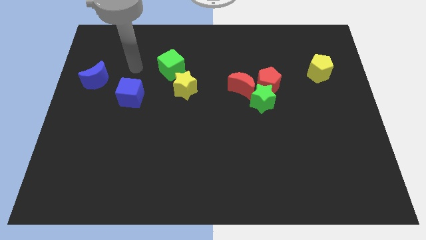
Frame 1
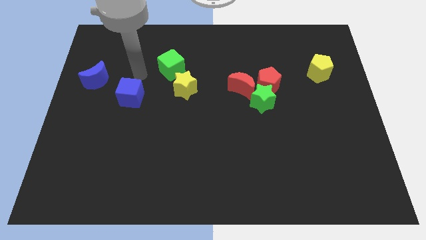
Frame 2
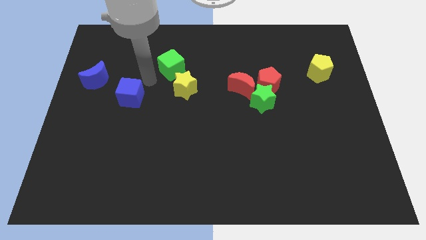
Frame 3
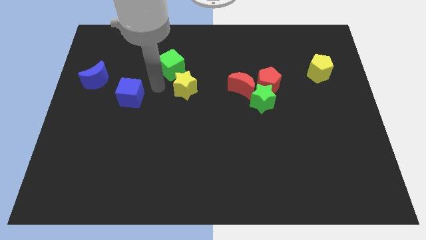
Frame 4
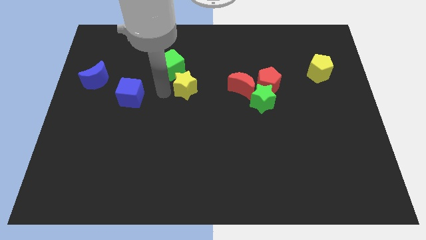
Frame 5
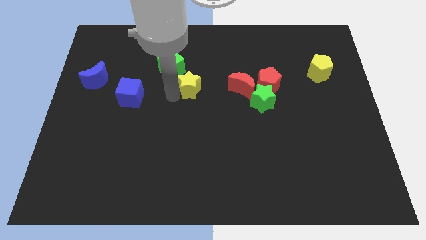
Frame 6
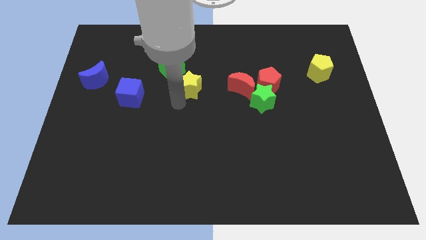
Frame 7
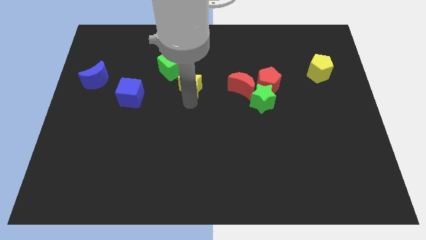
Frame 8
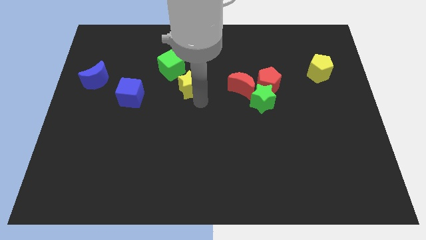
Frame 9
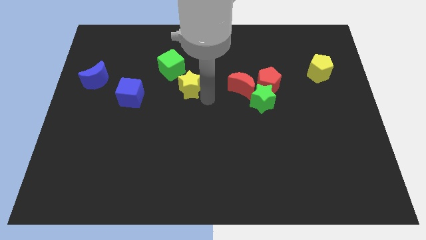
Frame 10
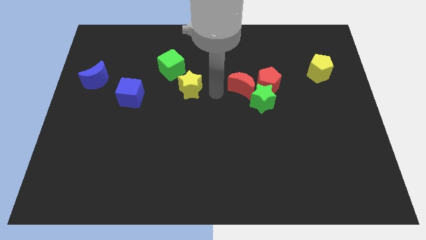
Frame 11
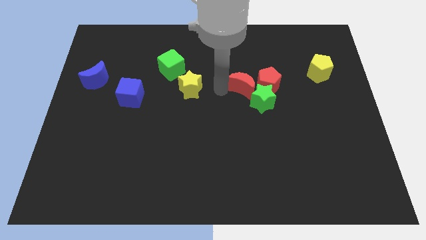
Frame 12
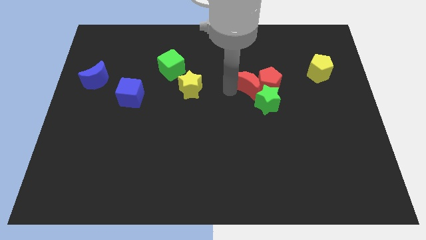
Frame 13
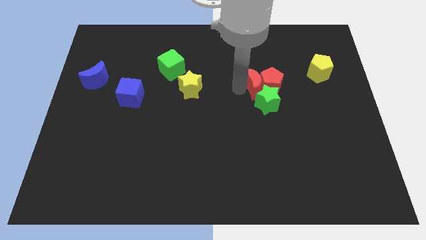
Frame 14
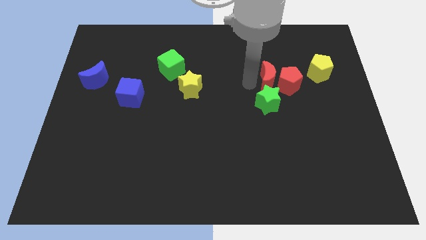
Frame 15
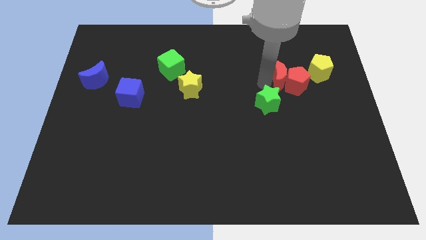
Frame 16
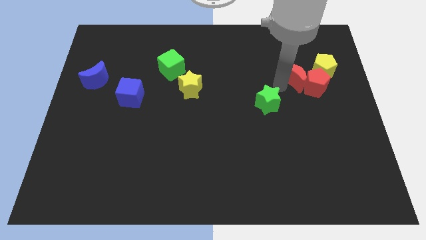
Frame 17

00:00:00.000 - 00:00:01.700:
separate the green star from the red pentagon and red moon

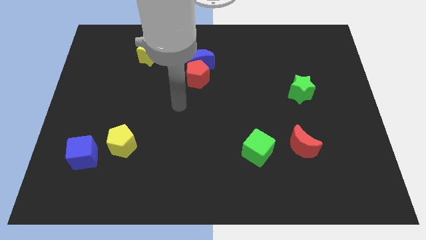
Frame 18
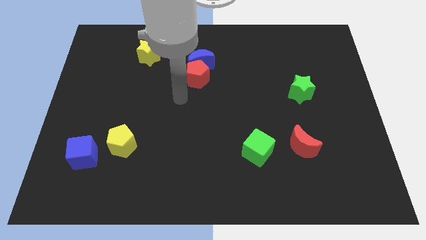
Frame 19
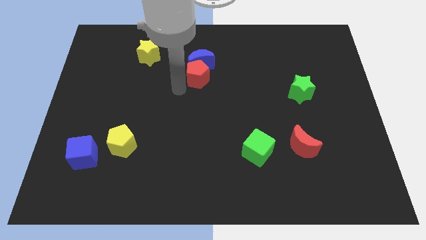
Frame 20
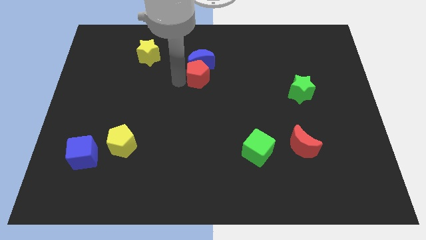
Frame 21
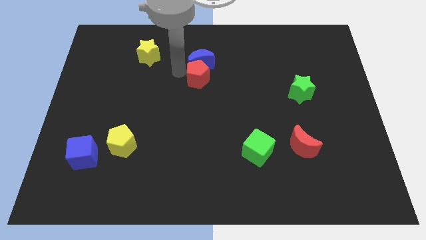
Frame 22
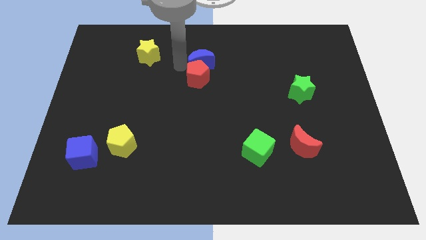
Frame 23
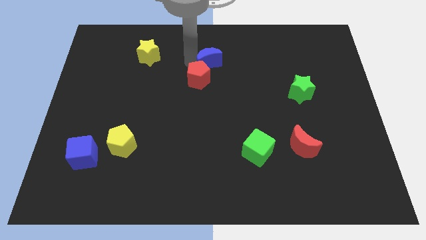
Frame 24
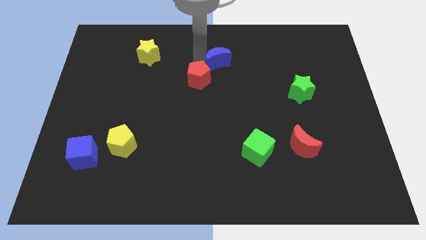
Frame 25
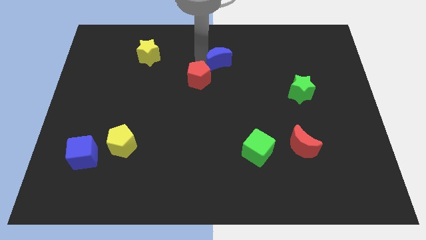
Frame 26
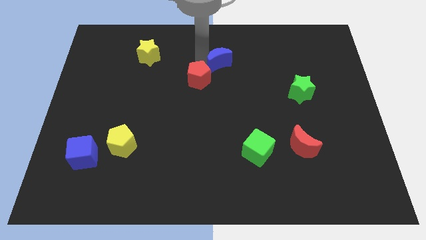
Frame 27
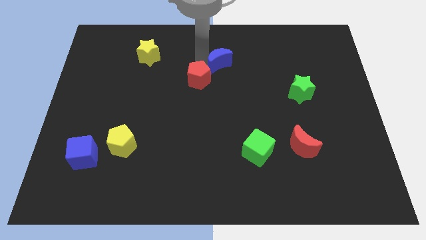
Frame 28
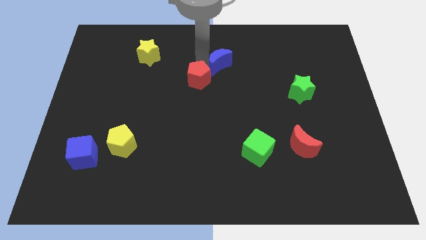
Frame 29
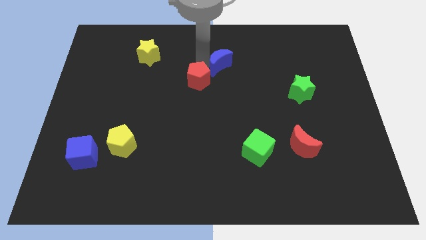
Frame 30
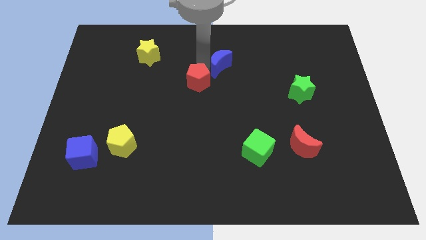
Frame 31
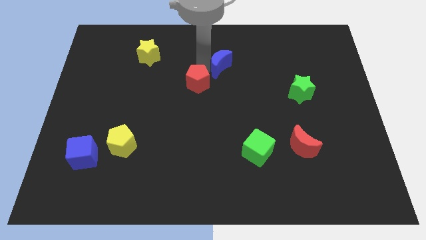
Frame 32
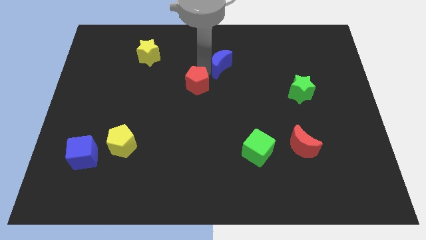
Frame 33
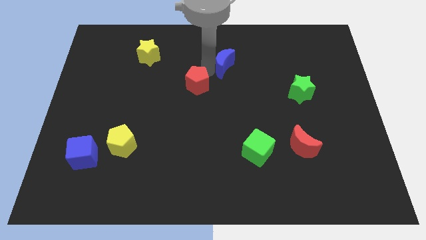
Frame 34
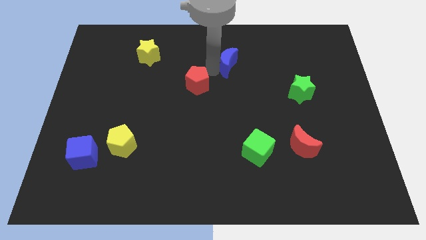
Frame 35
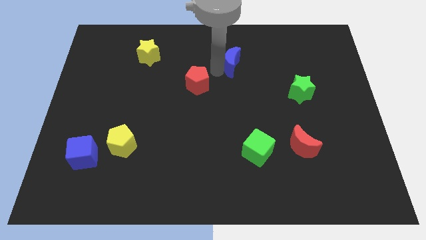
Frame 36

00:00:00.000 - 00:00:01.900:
move the red pentagon away from the blue moon

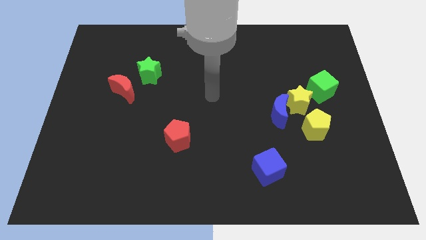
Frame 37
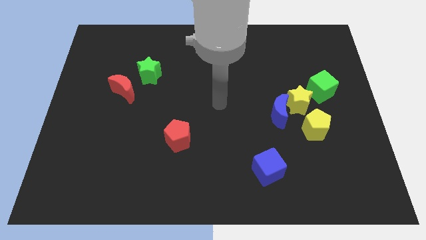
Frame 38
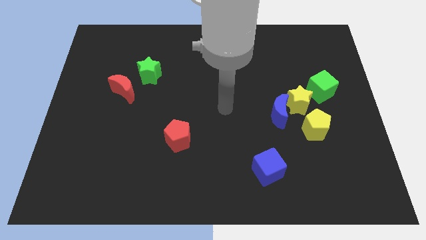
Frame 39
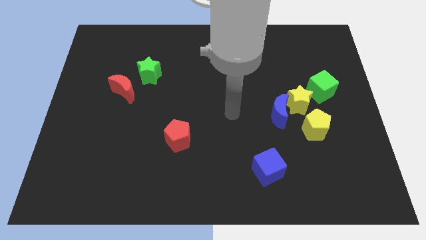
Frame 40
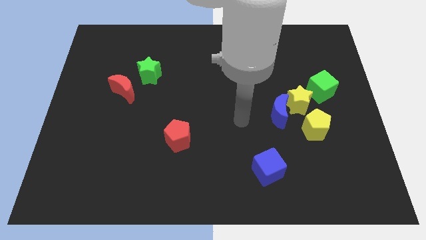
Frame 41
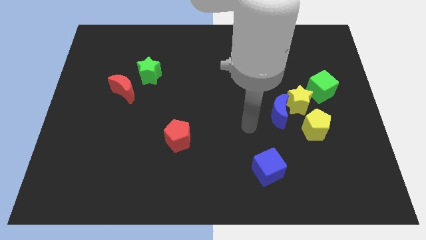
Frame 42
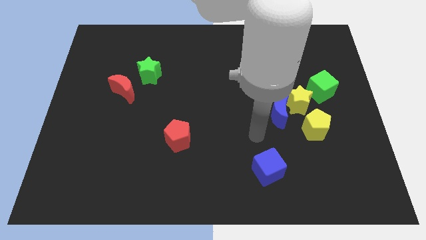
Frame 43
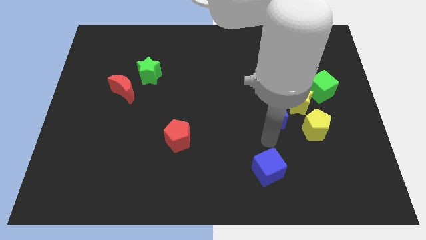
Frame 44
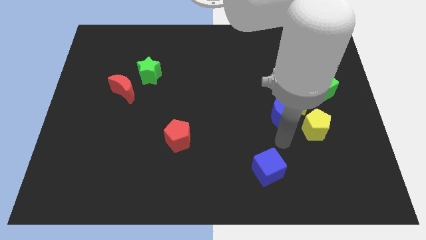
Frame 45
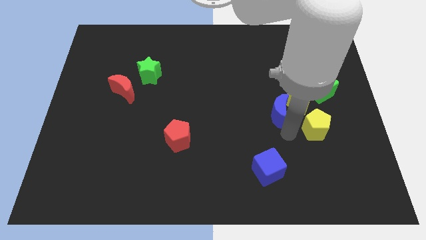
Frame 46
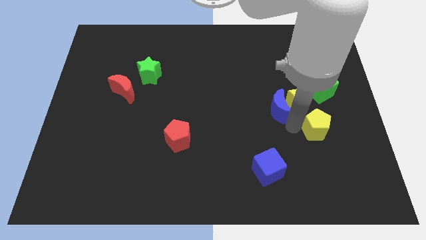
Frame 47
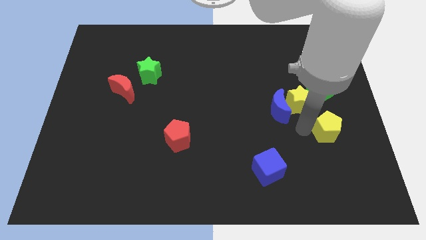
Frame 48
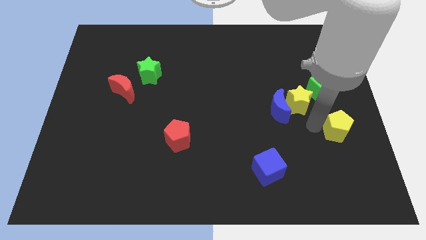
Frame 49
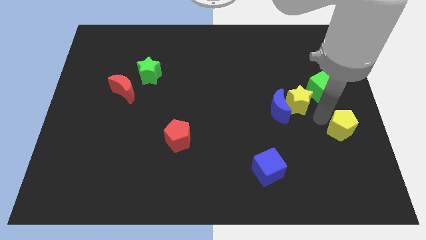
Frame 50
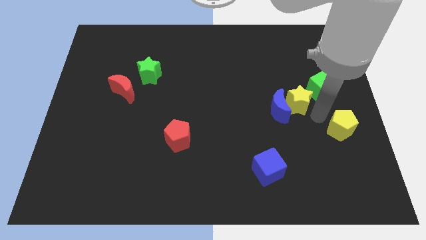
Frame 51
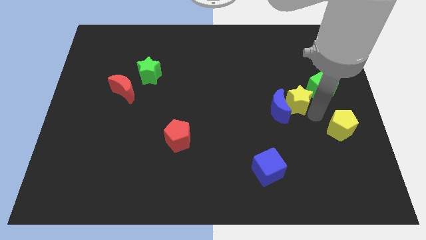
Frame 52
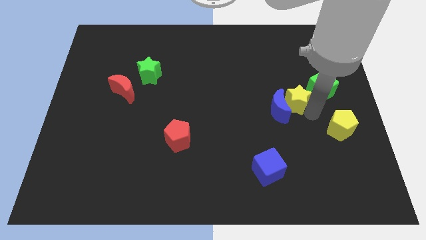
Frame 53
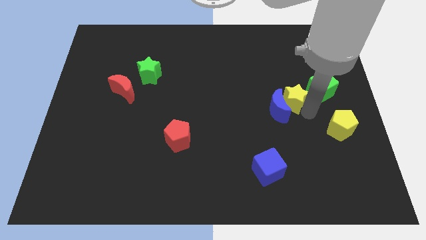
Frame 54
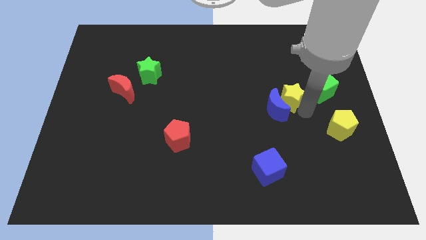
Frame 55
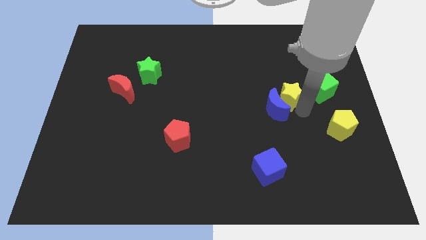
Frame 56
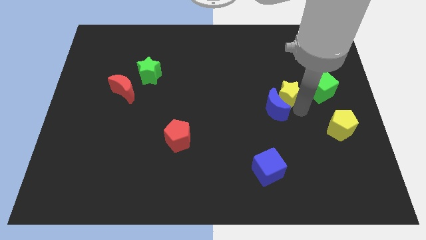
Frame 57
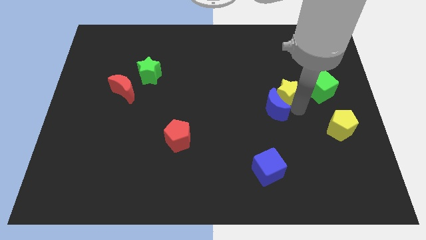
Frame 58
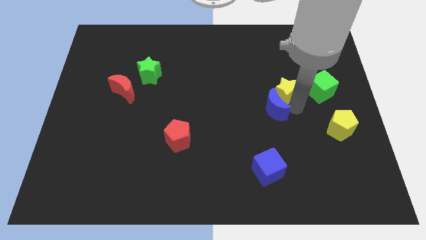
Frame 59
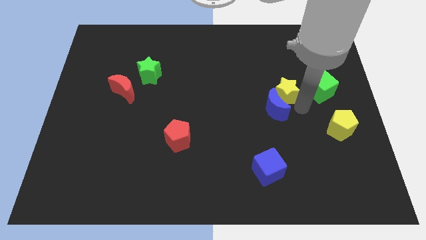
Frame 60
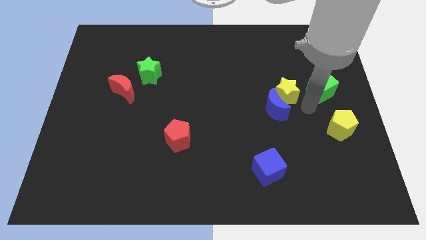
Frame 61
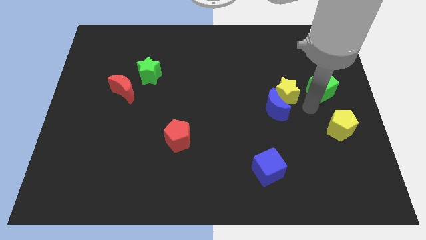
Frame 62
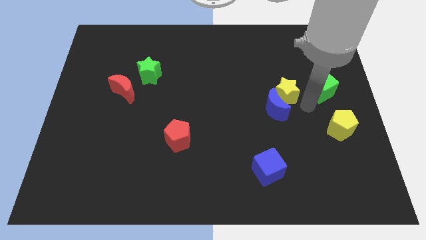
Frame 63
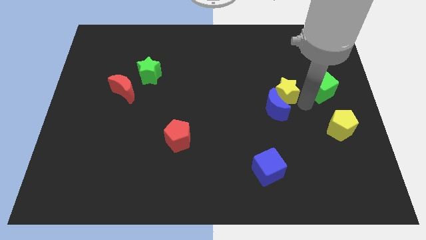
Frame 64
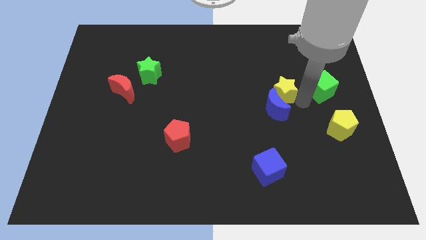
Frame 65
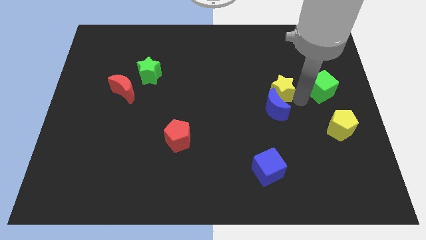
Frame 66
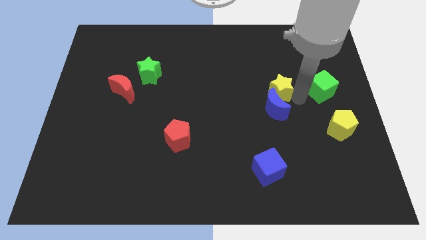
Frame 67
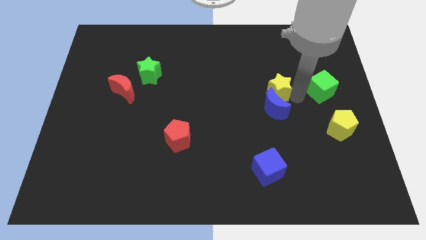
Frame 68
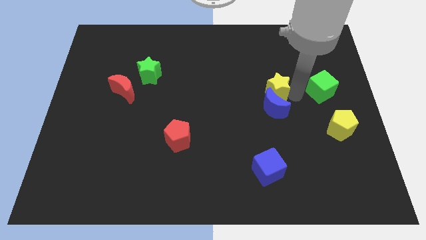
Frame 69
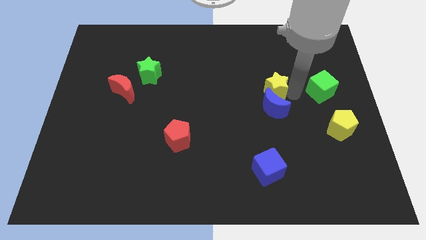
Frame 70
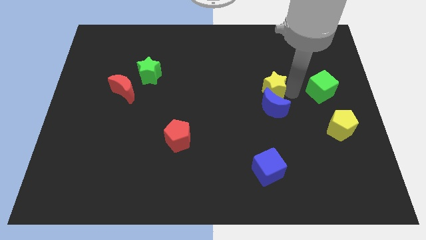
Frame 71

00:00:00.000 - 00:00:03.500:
separate the yellow star from the group

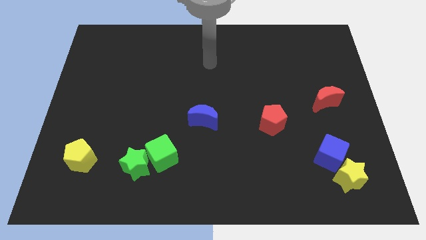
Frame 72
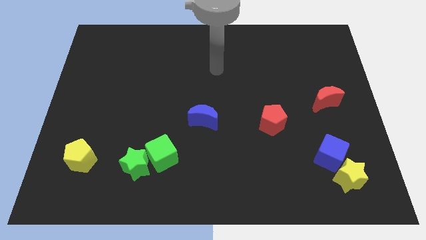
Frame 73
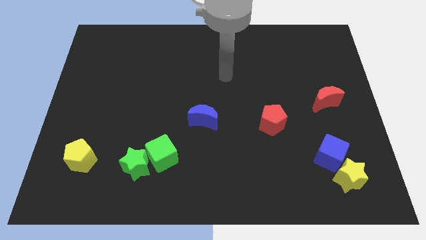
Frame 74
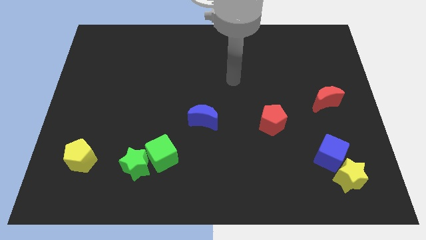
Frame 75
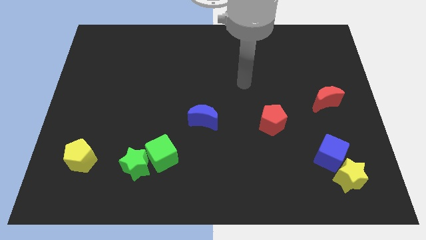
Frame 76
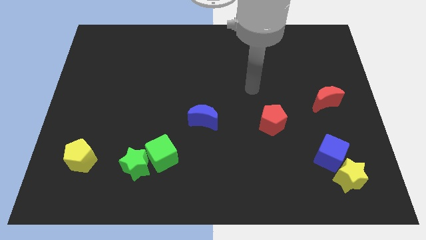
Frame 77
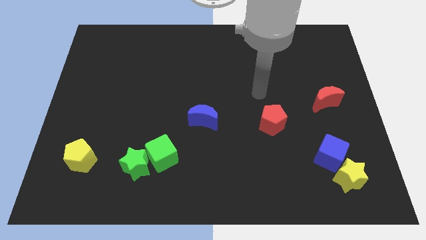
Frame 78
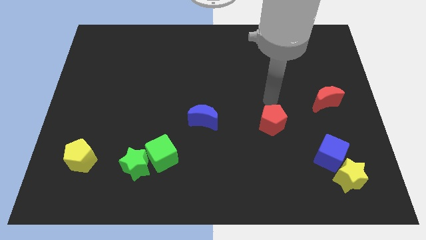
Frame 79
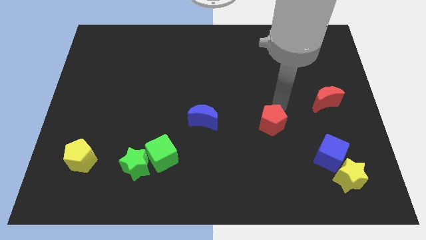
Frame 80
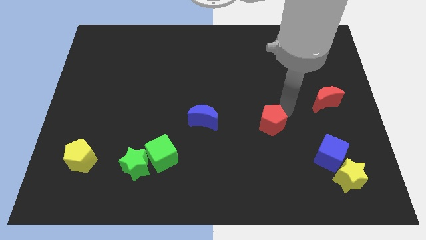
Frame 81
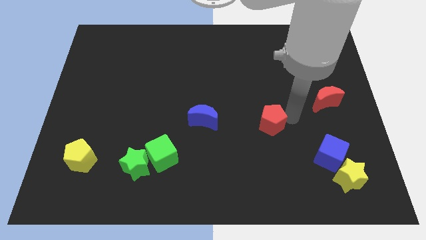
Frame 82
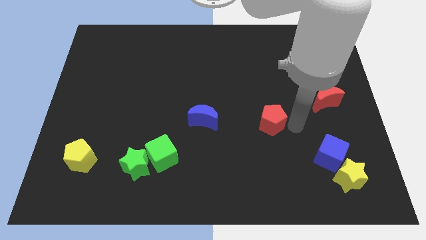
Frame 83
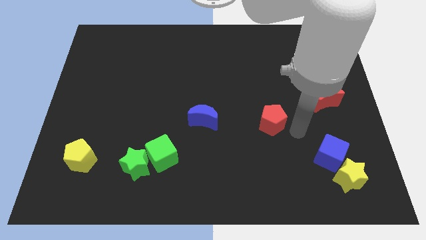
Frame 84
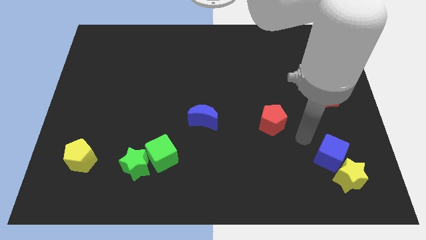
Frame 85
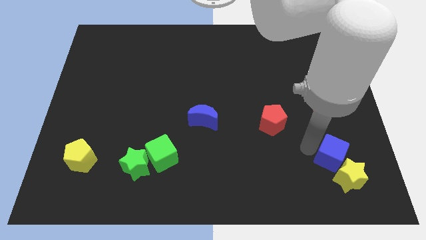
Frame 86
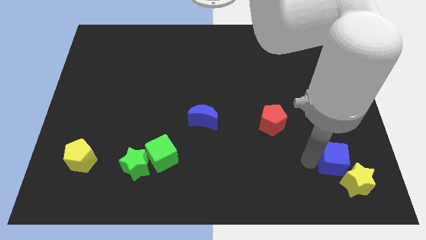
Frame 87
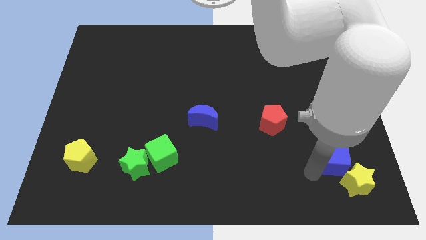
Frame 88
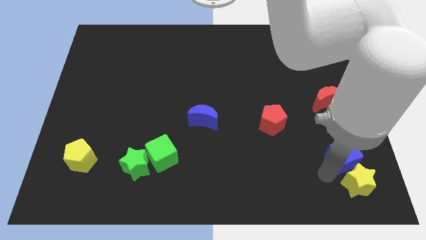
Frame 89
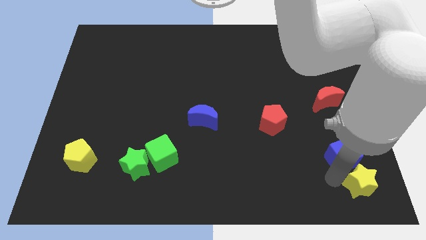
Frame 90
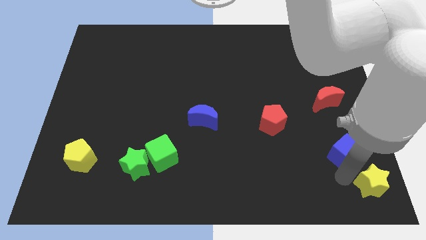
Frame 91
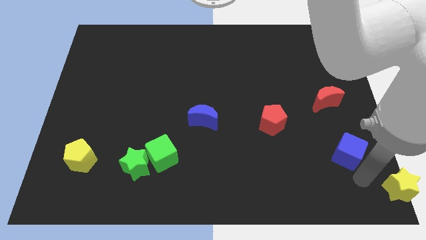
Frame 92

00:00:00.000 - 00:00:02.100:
move the blue cube away from the yellow star

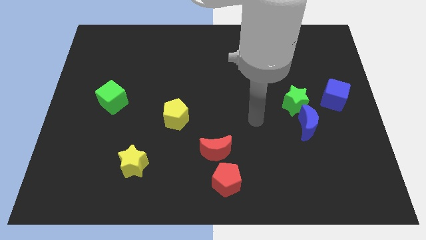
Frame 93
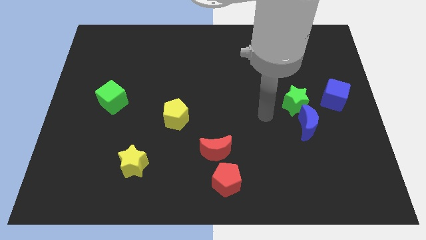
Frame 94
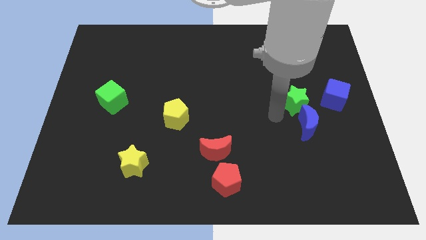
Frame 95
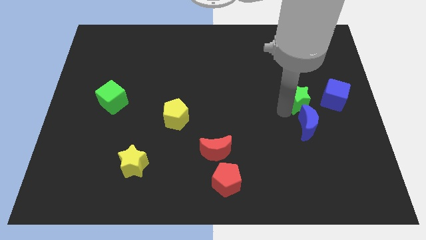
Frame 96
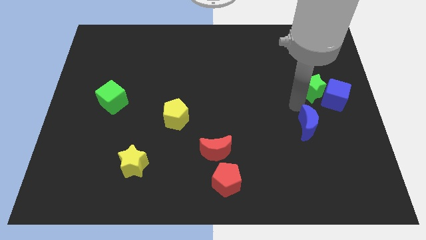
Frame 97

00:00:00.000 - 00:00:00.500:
separate the blue moon from the green star
